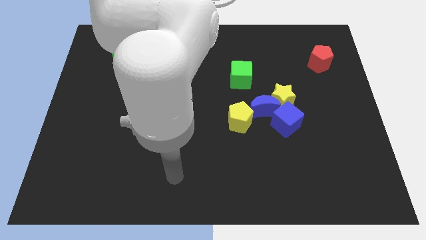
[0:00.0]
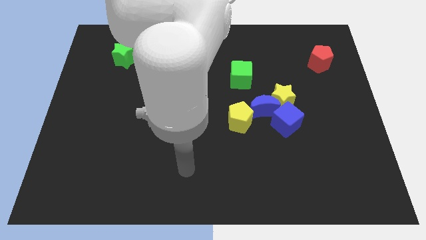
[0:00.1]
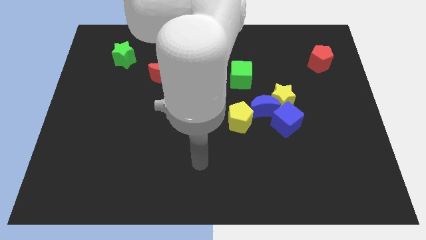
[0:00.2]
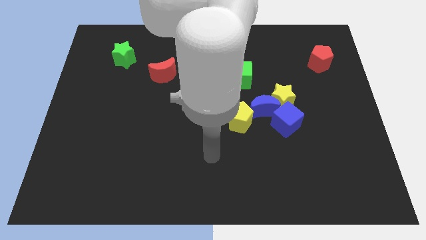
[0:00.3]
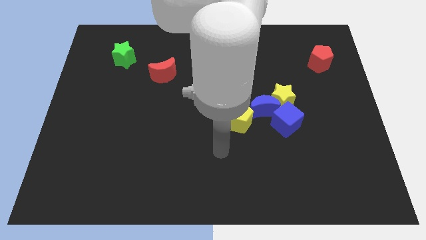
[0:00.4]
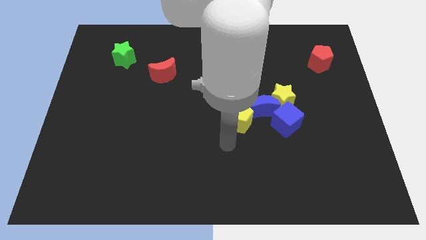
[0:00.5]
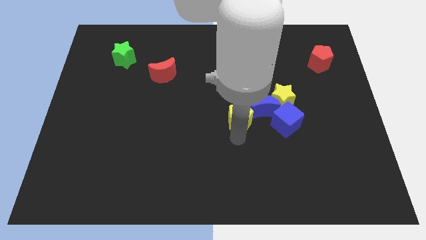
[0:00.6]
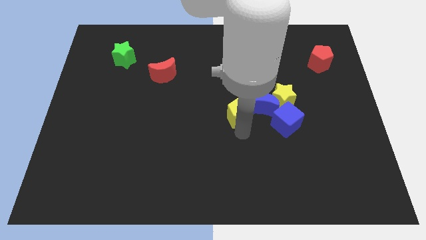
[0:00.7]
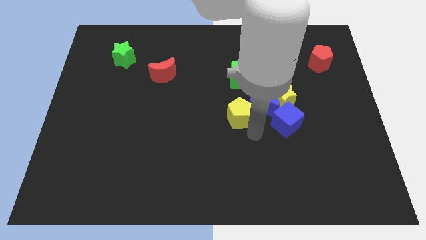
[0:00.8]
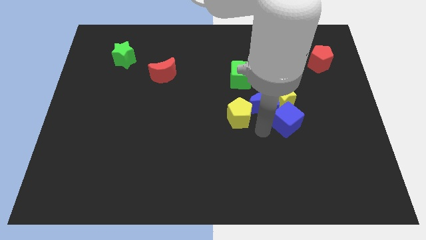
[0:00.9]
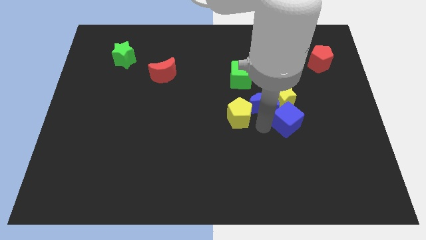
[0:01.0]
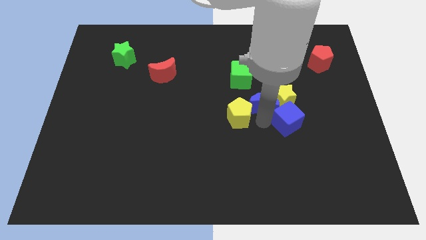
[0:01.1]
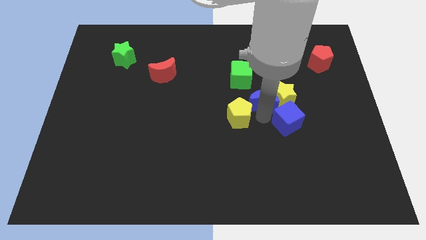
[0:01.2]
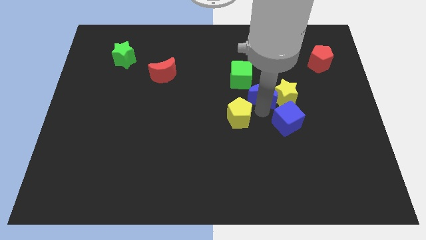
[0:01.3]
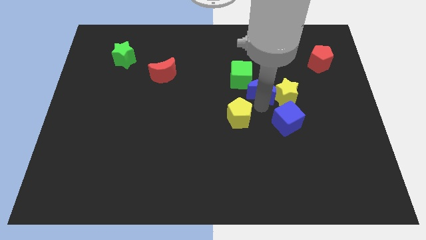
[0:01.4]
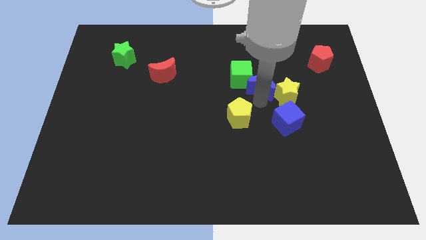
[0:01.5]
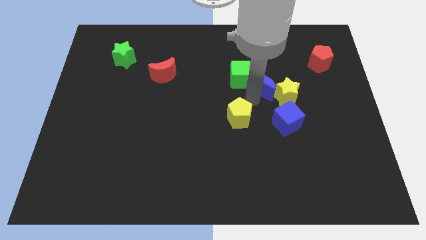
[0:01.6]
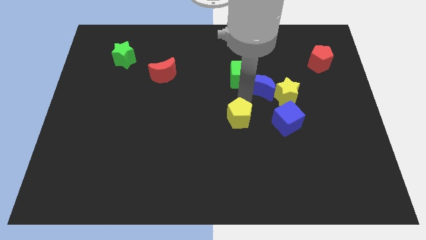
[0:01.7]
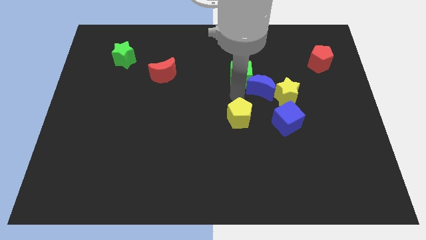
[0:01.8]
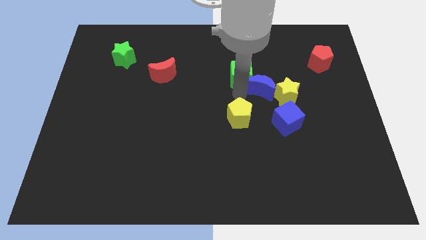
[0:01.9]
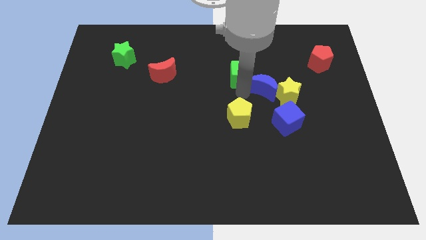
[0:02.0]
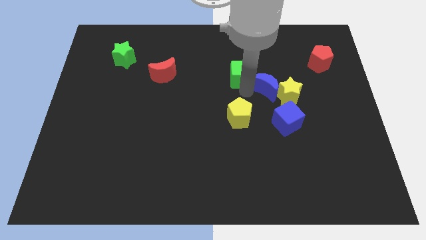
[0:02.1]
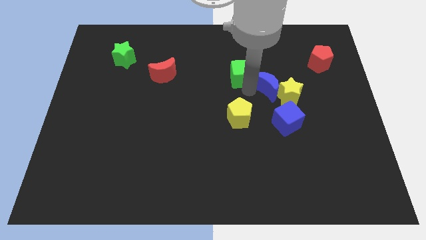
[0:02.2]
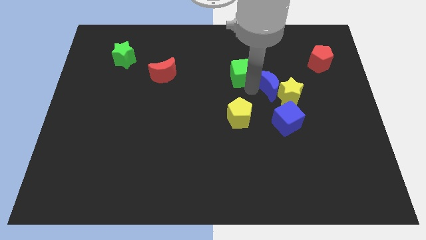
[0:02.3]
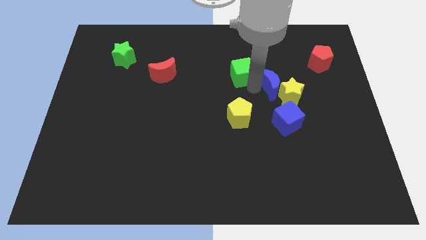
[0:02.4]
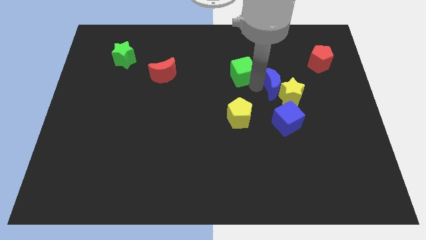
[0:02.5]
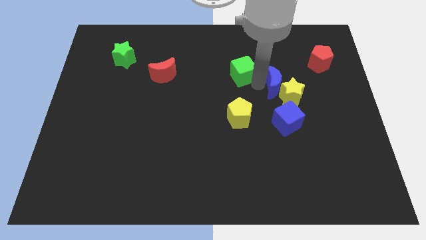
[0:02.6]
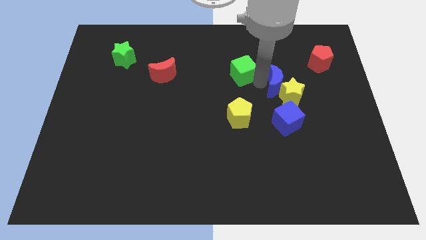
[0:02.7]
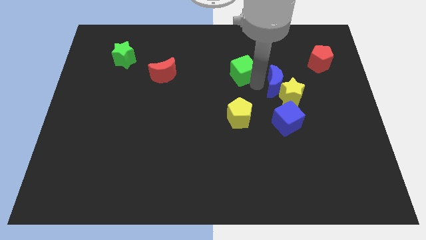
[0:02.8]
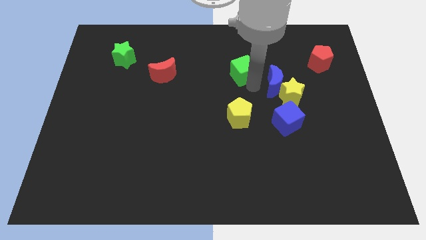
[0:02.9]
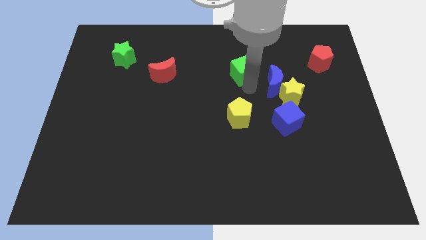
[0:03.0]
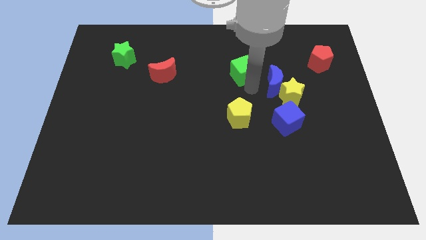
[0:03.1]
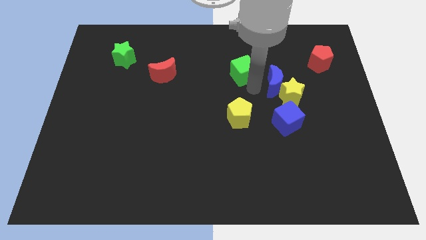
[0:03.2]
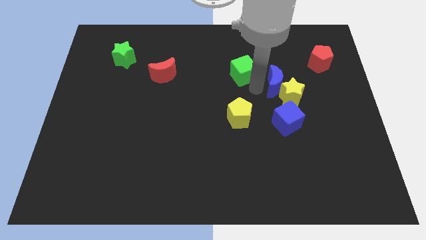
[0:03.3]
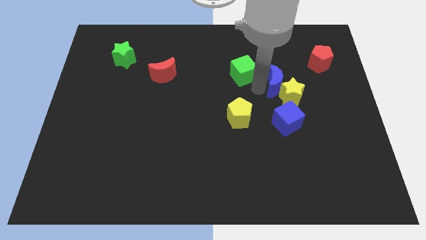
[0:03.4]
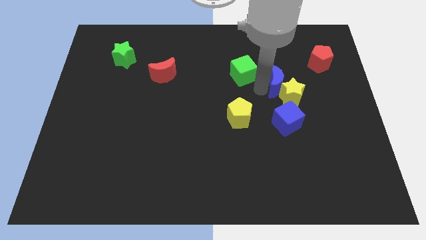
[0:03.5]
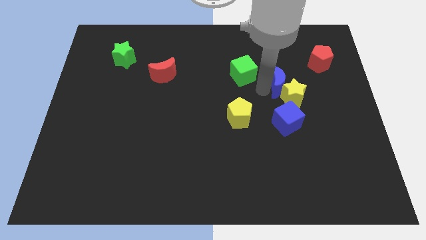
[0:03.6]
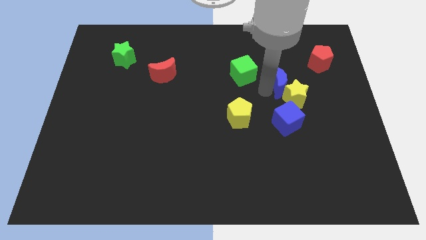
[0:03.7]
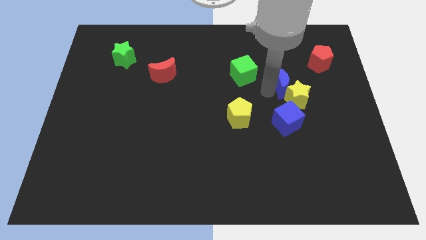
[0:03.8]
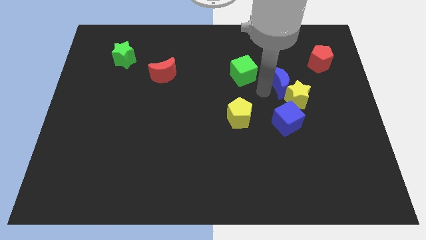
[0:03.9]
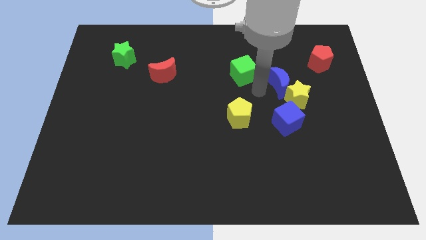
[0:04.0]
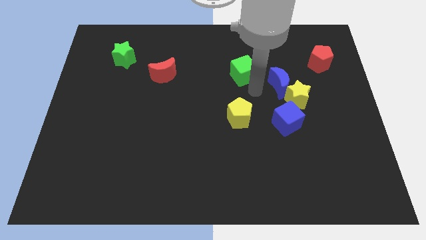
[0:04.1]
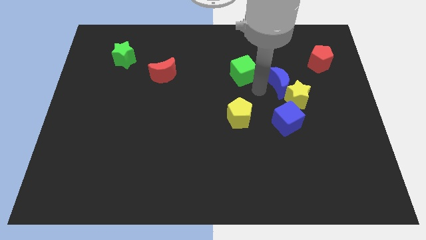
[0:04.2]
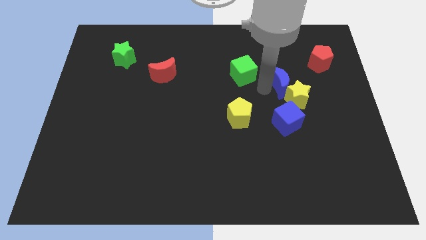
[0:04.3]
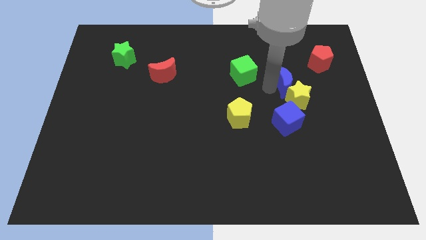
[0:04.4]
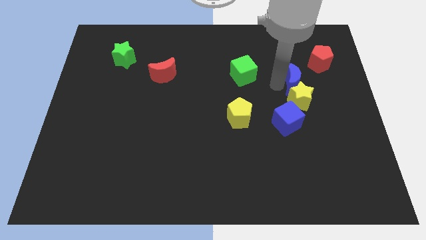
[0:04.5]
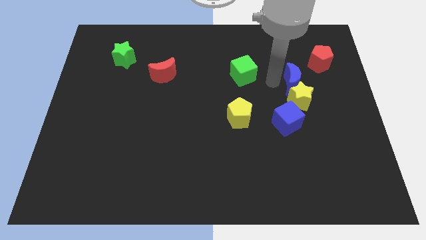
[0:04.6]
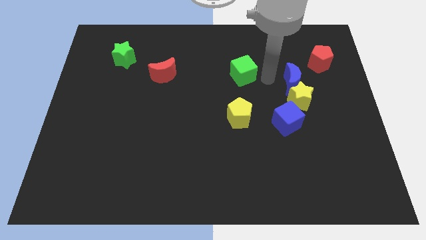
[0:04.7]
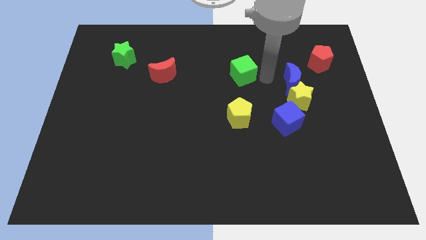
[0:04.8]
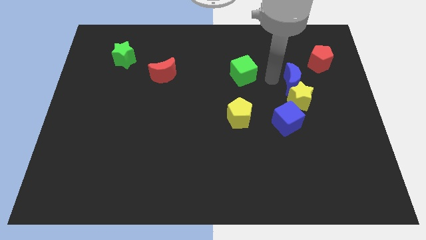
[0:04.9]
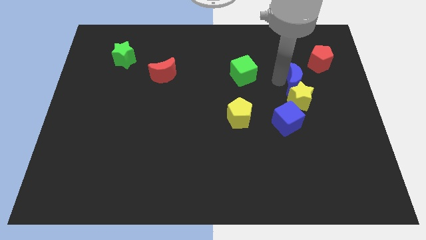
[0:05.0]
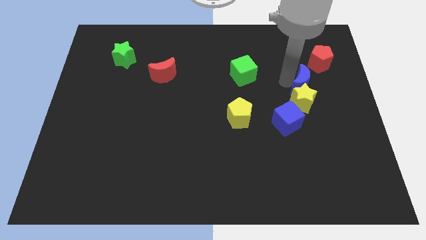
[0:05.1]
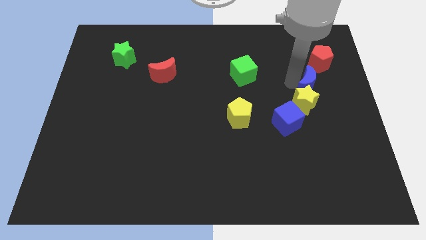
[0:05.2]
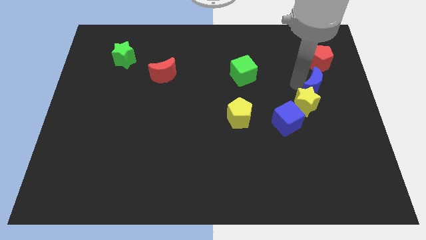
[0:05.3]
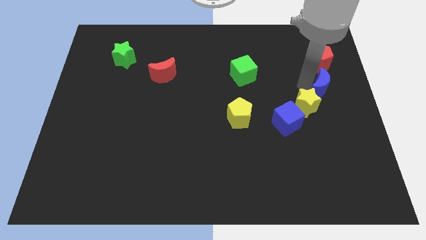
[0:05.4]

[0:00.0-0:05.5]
move the blue moon to the right side

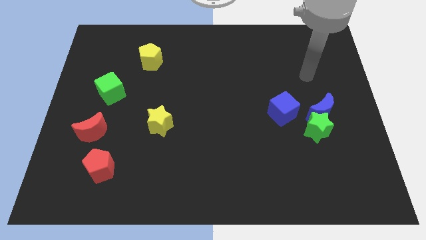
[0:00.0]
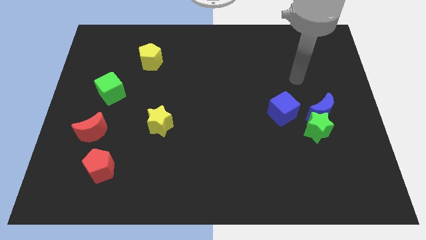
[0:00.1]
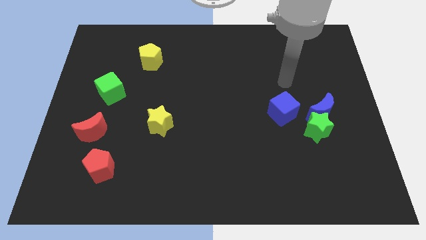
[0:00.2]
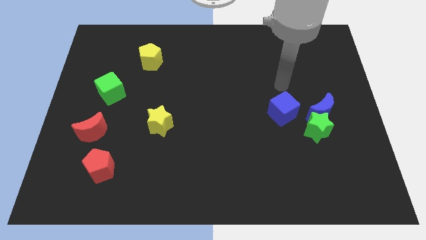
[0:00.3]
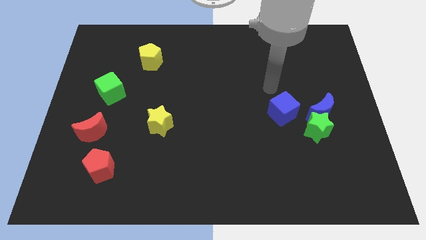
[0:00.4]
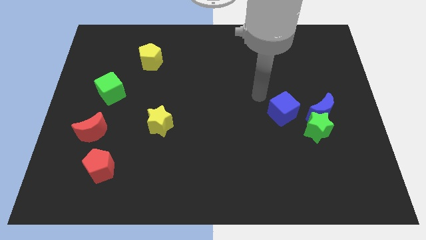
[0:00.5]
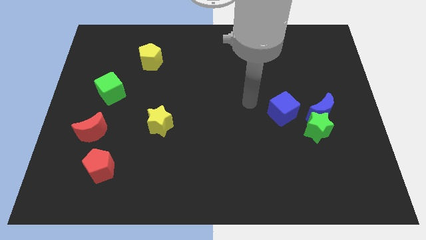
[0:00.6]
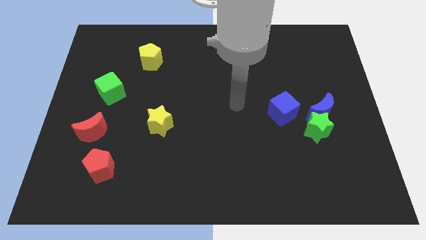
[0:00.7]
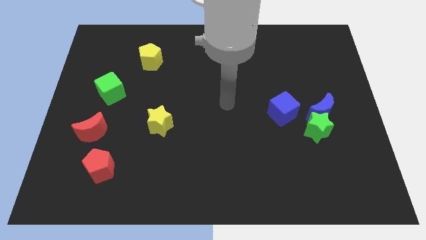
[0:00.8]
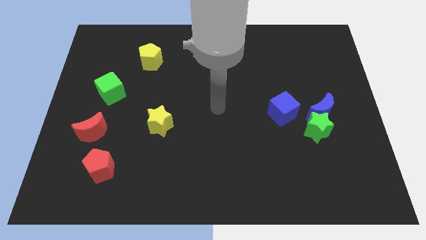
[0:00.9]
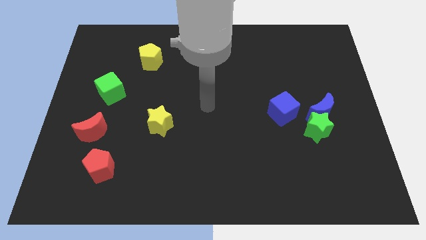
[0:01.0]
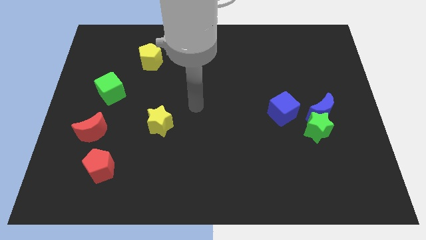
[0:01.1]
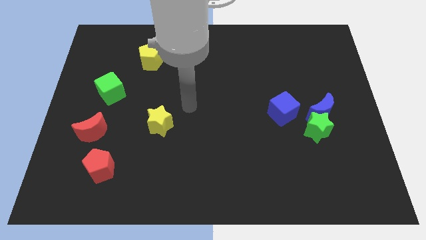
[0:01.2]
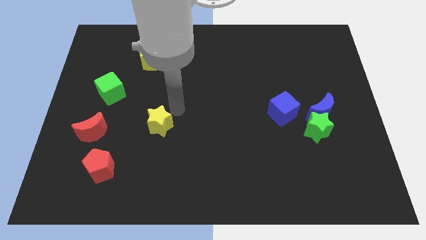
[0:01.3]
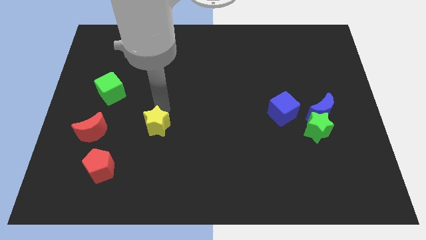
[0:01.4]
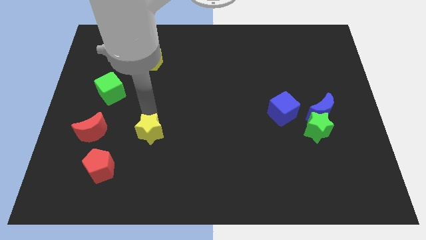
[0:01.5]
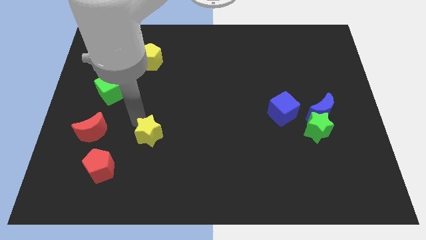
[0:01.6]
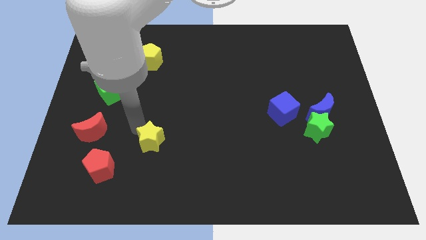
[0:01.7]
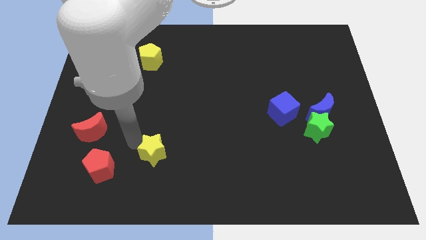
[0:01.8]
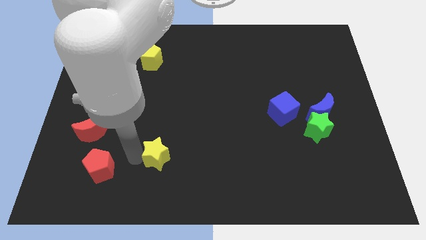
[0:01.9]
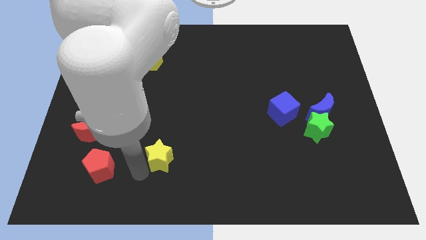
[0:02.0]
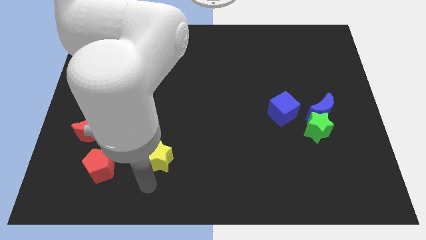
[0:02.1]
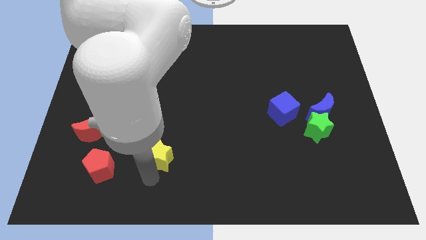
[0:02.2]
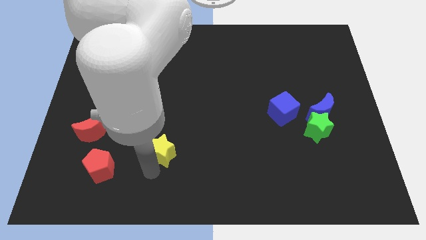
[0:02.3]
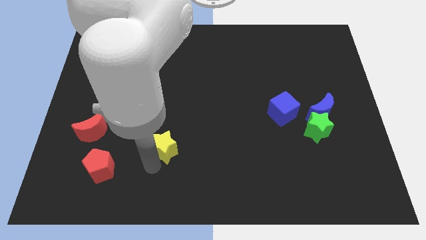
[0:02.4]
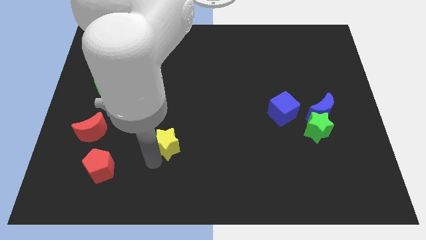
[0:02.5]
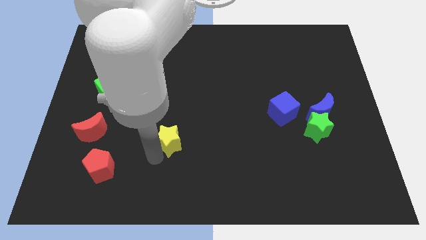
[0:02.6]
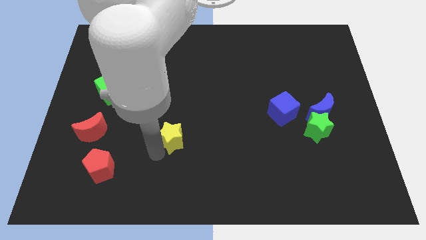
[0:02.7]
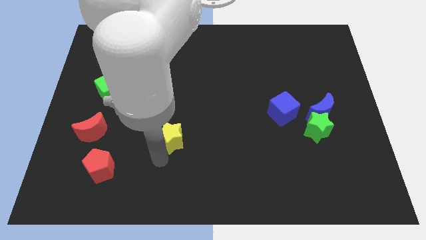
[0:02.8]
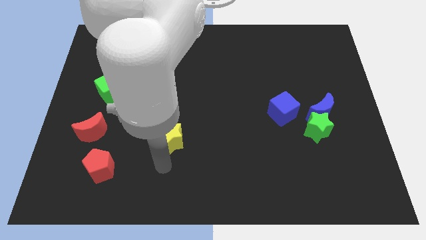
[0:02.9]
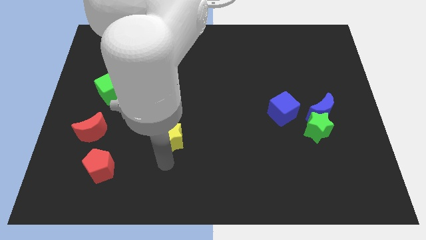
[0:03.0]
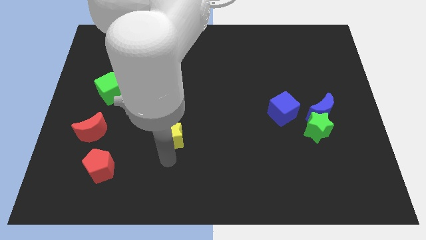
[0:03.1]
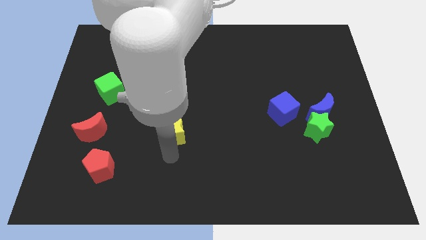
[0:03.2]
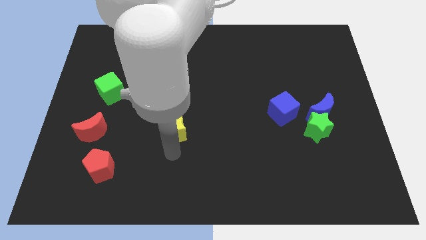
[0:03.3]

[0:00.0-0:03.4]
move the yellow star to the middle of the board
